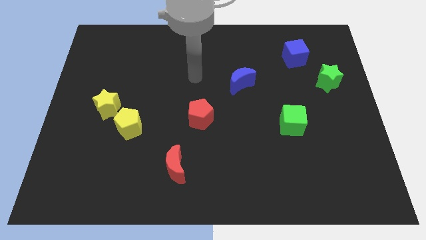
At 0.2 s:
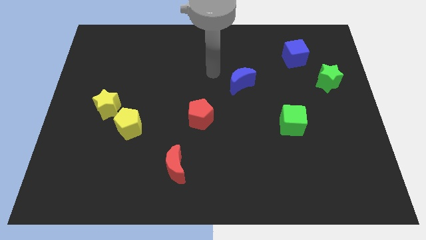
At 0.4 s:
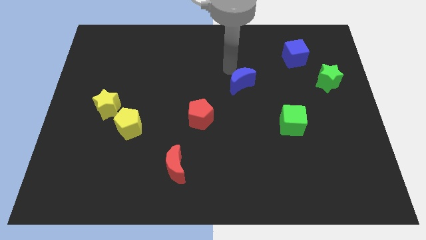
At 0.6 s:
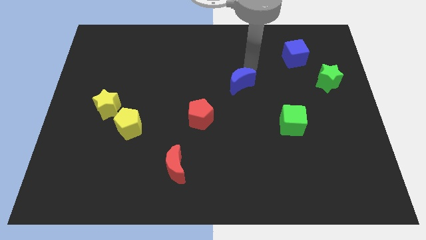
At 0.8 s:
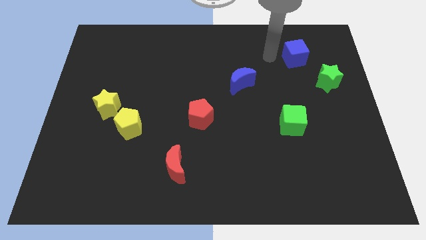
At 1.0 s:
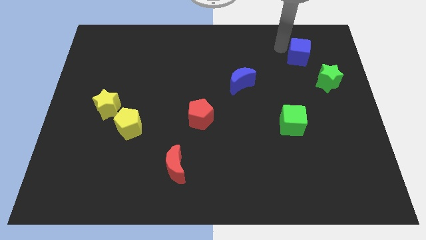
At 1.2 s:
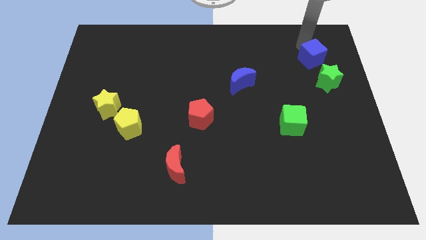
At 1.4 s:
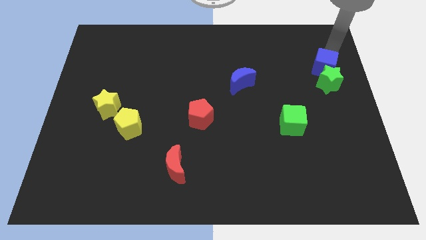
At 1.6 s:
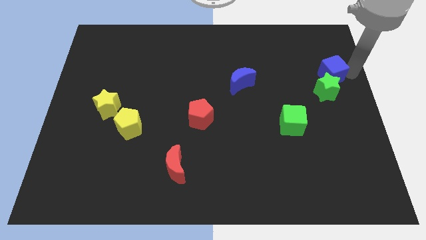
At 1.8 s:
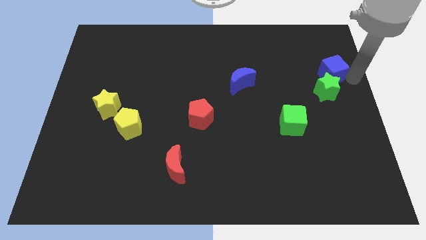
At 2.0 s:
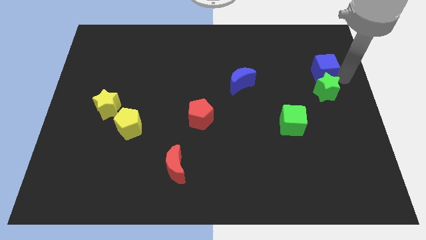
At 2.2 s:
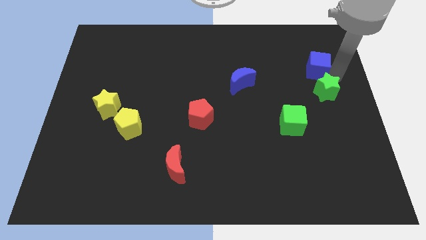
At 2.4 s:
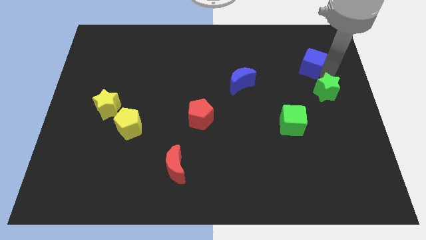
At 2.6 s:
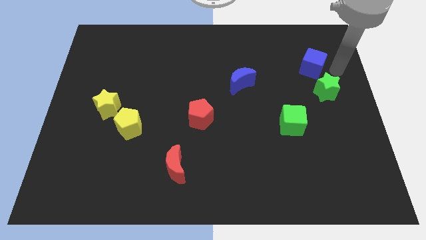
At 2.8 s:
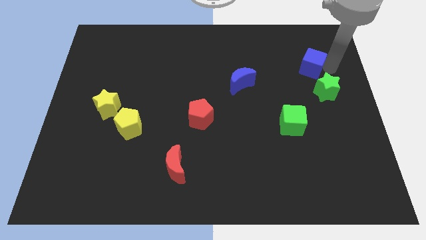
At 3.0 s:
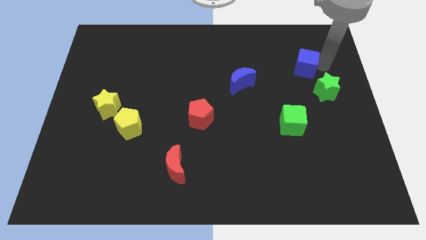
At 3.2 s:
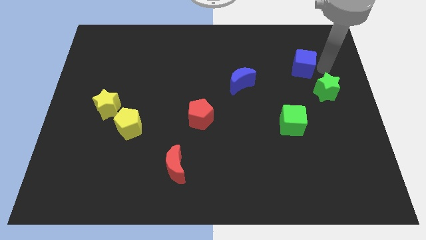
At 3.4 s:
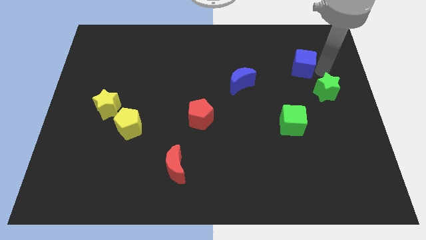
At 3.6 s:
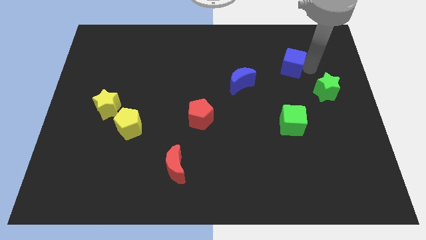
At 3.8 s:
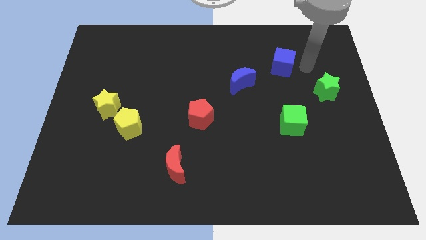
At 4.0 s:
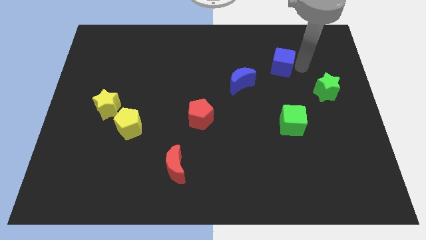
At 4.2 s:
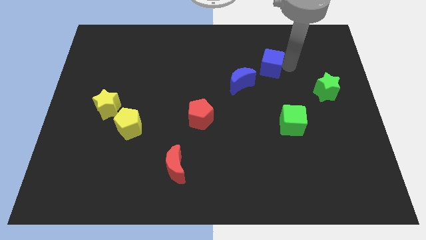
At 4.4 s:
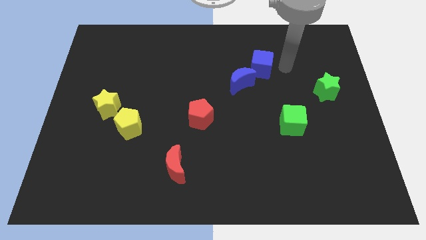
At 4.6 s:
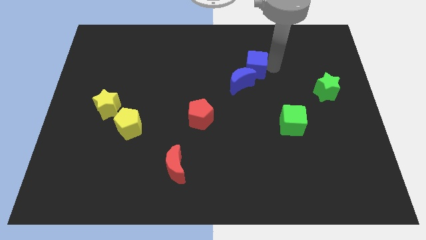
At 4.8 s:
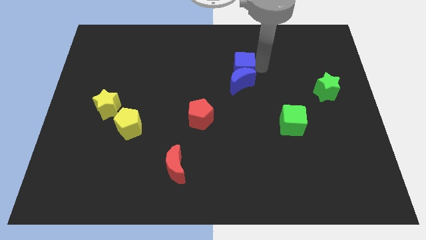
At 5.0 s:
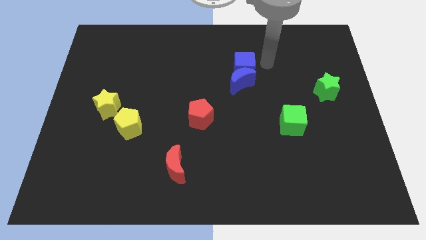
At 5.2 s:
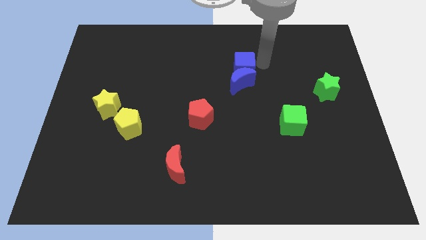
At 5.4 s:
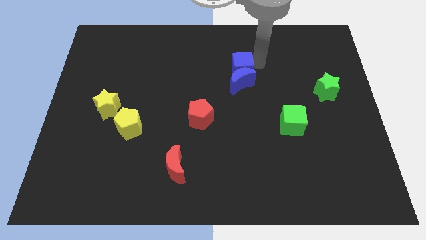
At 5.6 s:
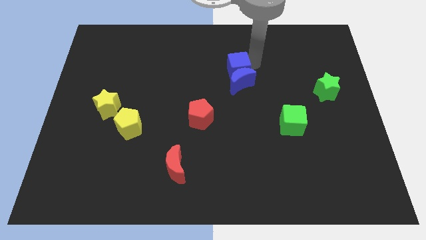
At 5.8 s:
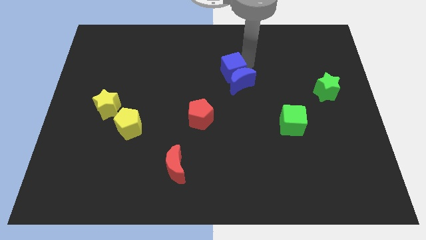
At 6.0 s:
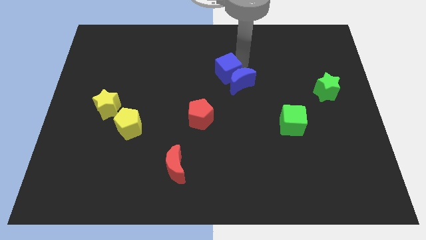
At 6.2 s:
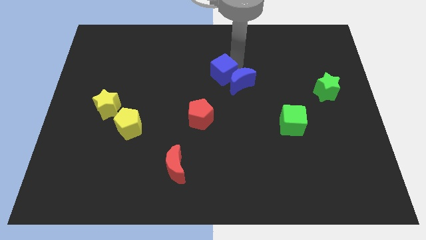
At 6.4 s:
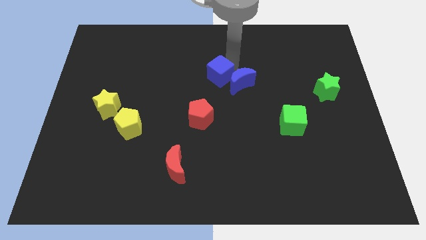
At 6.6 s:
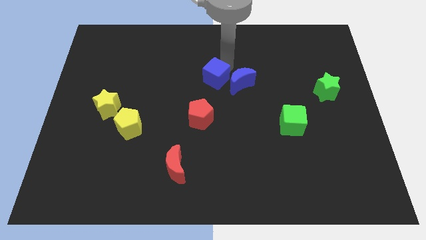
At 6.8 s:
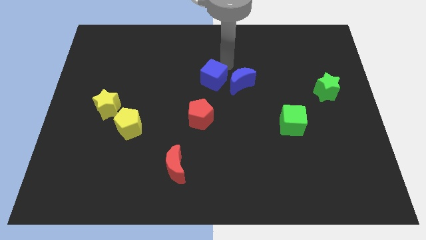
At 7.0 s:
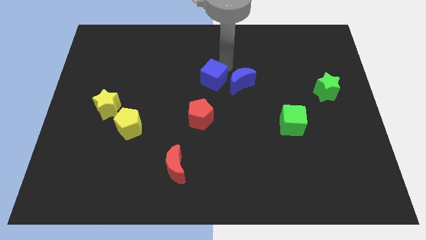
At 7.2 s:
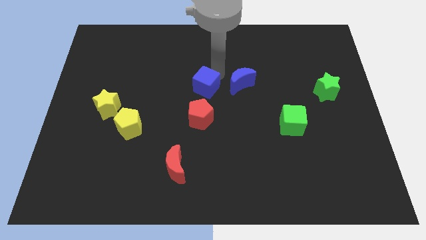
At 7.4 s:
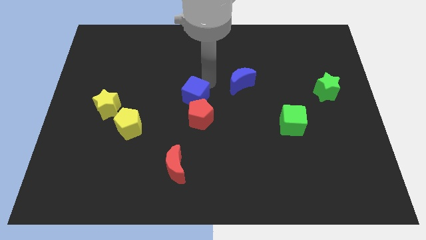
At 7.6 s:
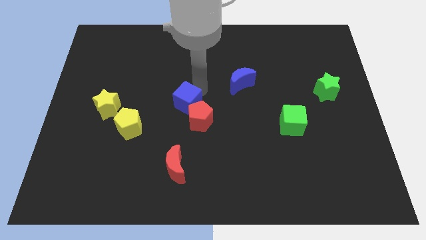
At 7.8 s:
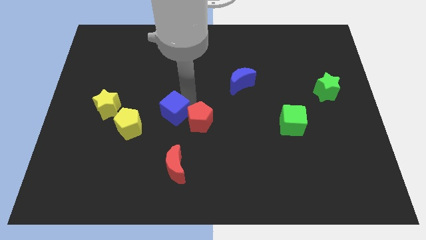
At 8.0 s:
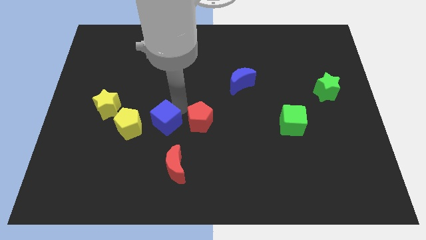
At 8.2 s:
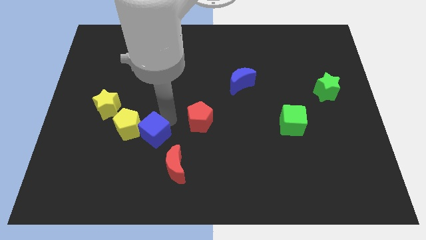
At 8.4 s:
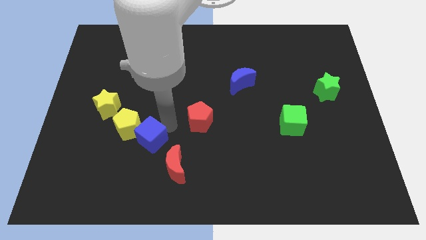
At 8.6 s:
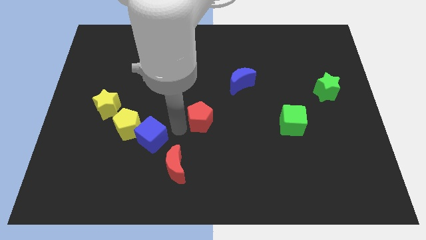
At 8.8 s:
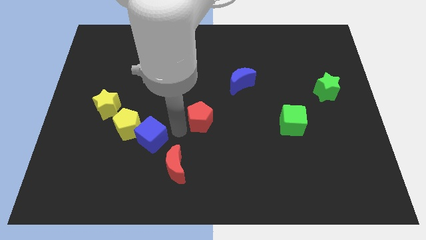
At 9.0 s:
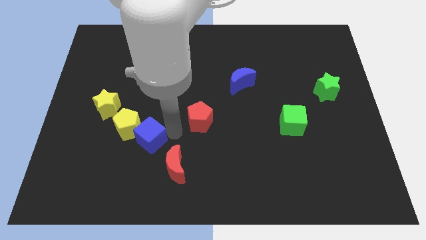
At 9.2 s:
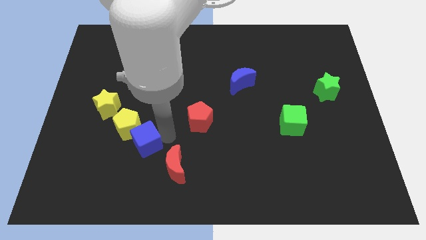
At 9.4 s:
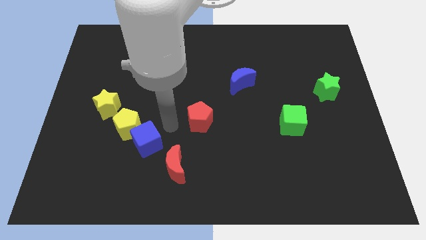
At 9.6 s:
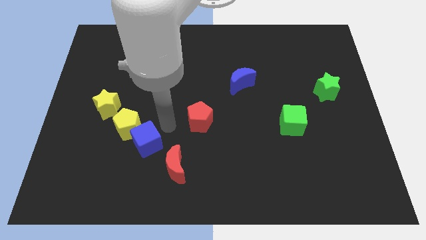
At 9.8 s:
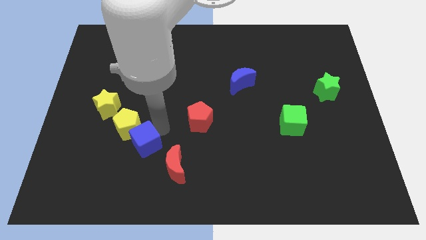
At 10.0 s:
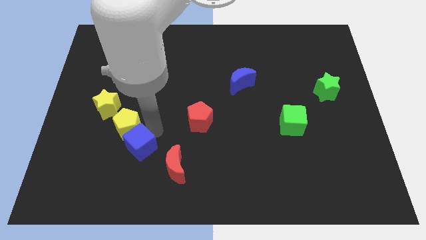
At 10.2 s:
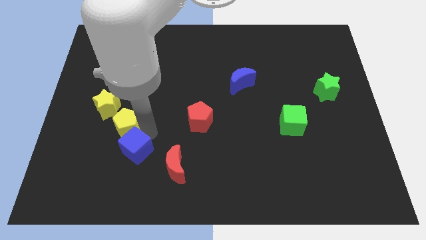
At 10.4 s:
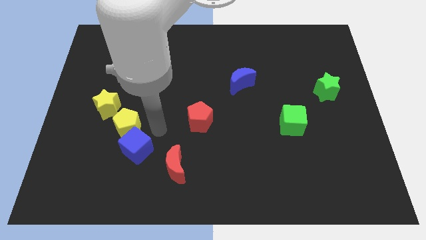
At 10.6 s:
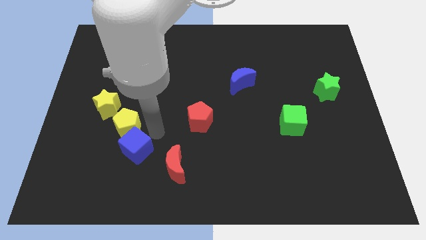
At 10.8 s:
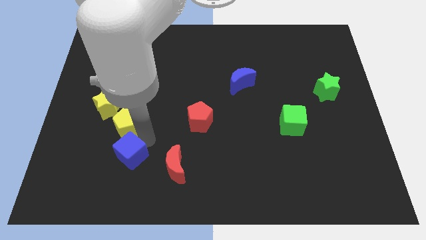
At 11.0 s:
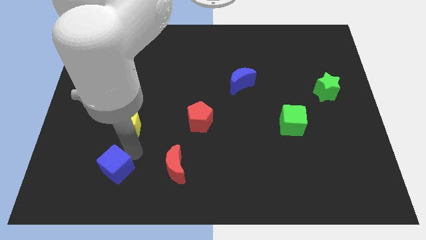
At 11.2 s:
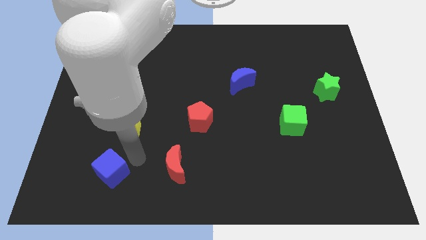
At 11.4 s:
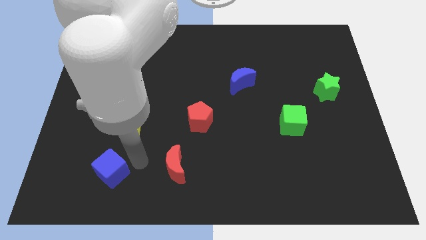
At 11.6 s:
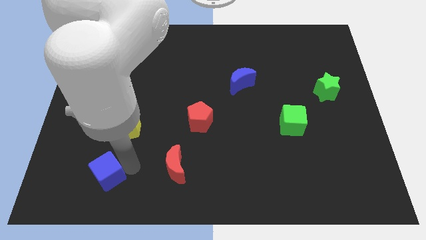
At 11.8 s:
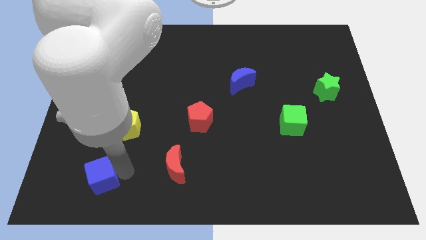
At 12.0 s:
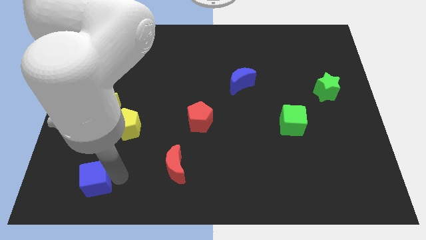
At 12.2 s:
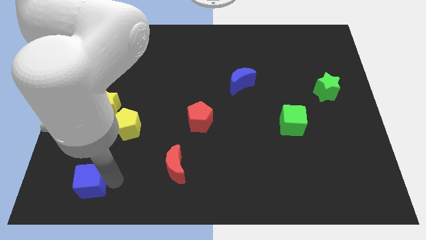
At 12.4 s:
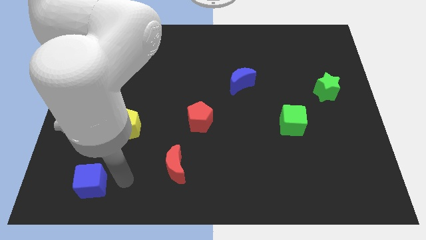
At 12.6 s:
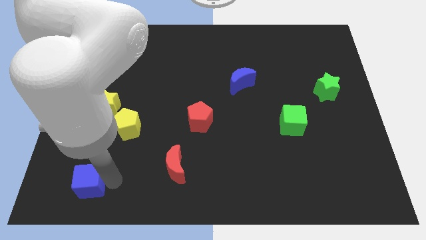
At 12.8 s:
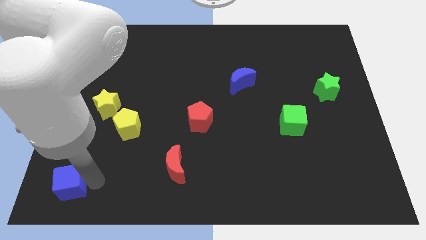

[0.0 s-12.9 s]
push the blue cube to the bottom left corner

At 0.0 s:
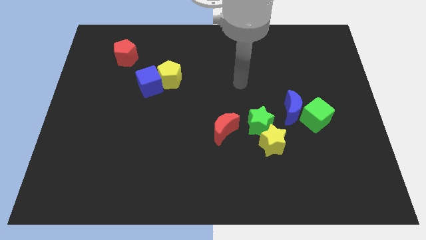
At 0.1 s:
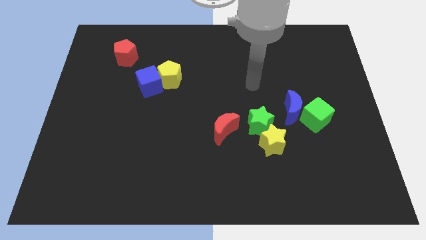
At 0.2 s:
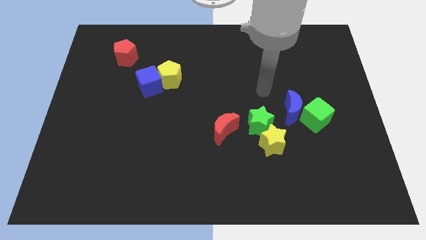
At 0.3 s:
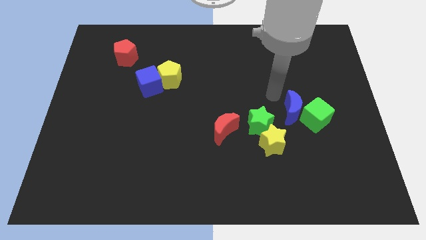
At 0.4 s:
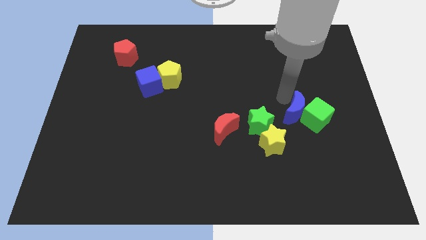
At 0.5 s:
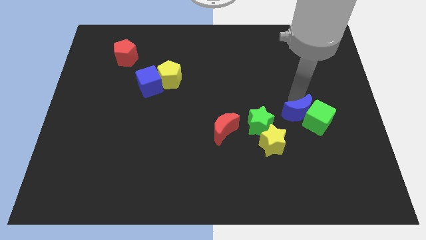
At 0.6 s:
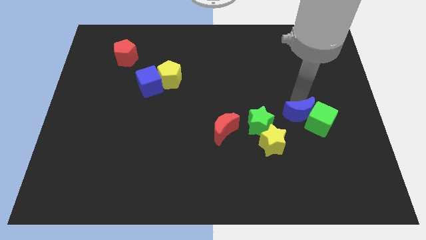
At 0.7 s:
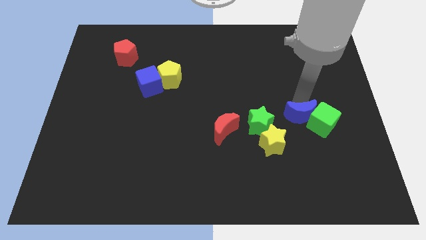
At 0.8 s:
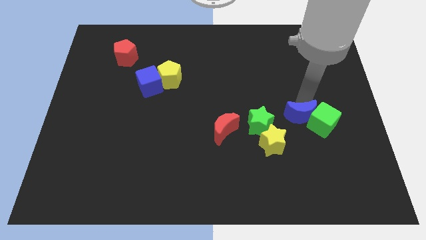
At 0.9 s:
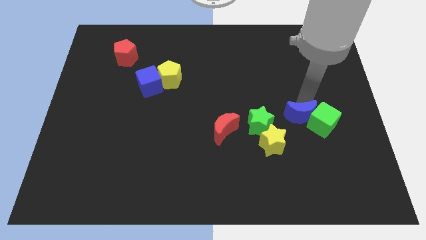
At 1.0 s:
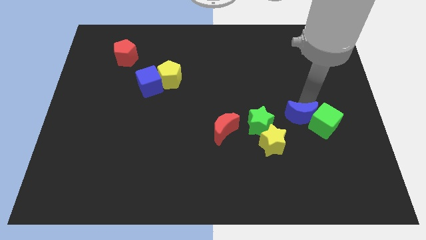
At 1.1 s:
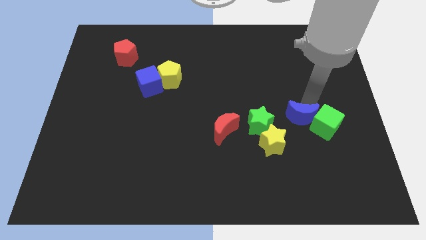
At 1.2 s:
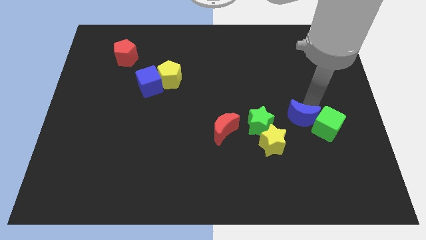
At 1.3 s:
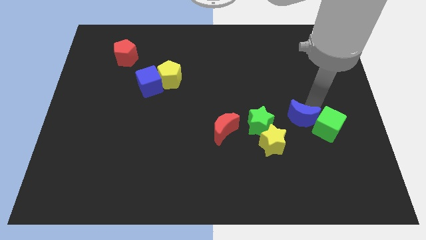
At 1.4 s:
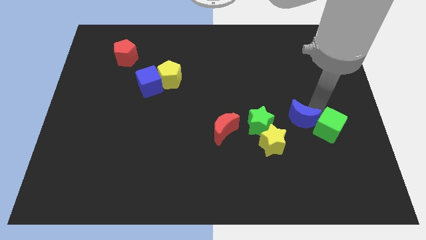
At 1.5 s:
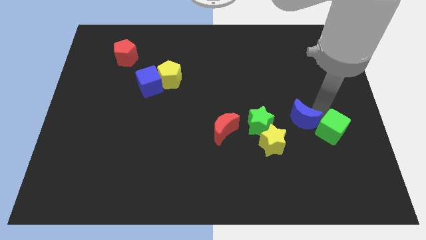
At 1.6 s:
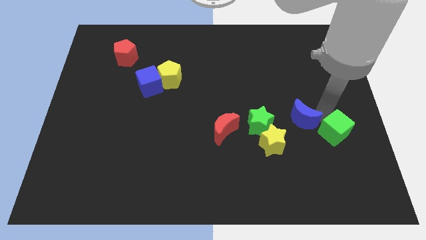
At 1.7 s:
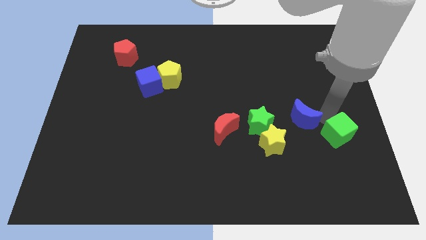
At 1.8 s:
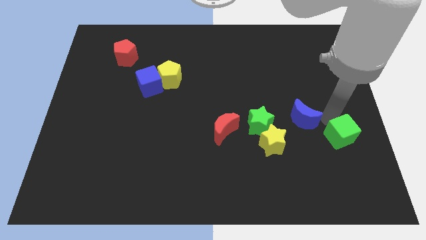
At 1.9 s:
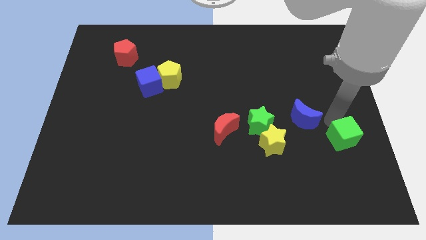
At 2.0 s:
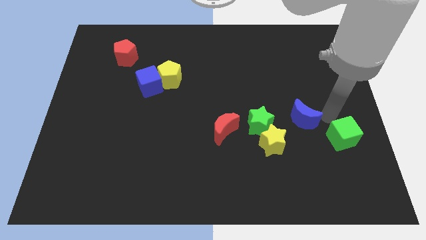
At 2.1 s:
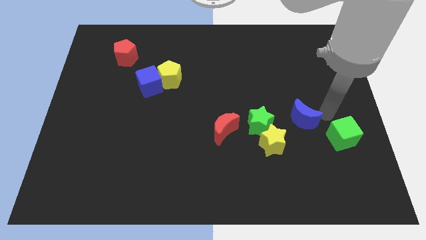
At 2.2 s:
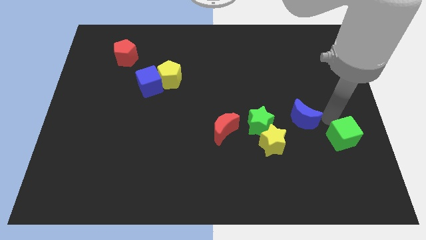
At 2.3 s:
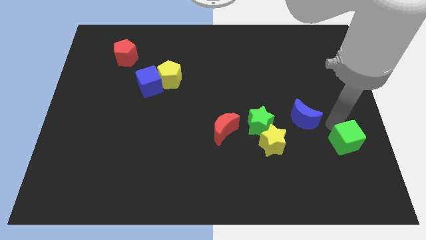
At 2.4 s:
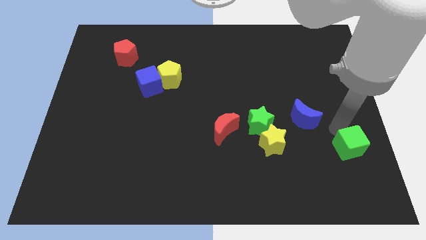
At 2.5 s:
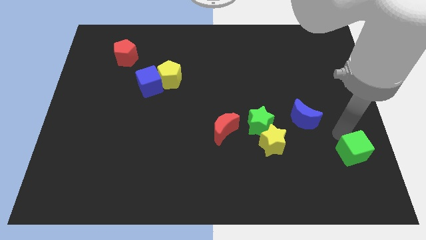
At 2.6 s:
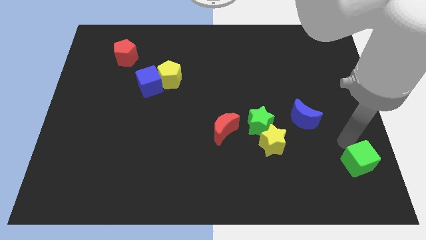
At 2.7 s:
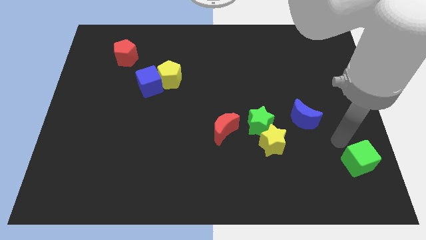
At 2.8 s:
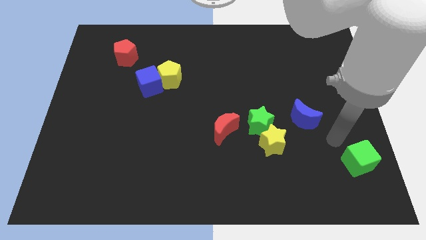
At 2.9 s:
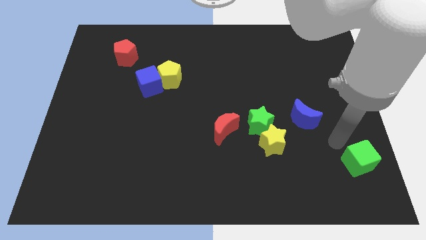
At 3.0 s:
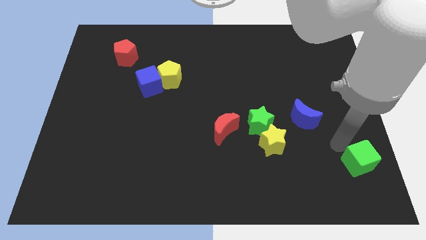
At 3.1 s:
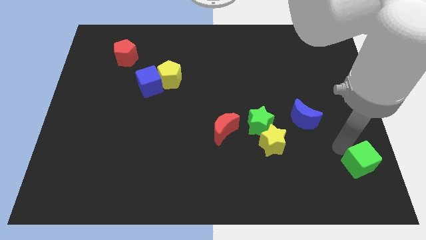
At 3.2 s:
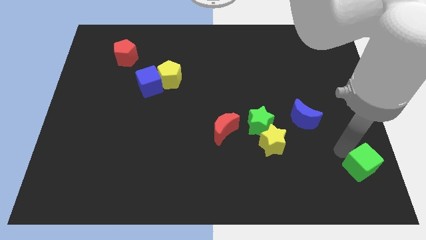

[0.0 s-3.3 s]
push the green cube to the bottom right
